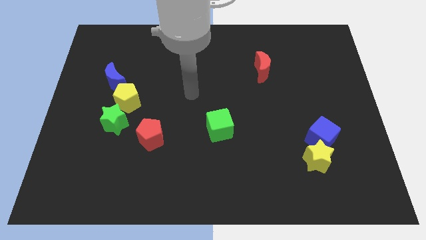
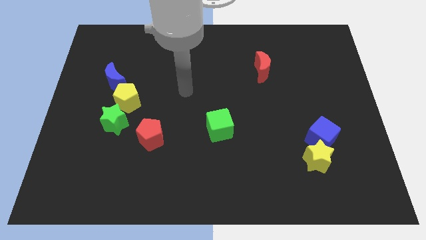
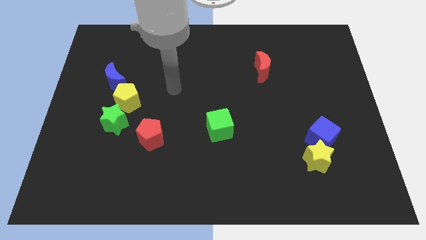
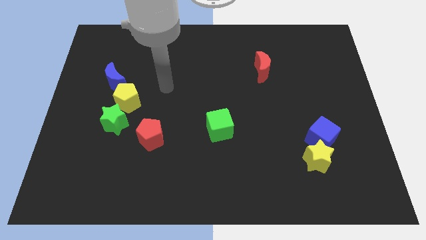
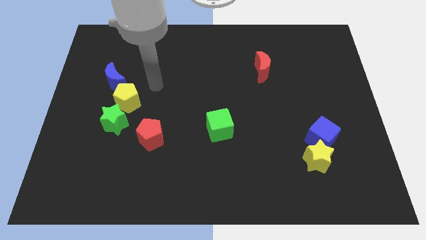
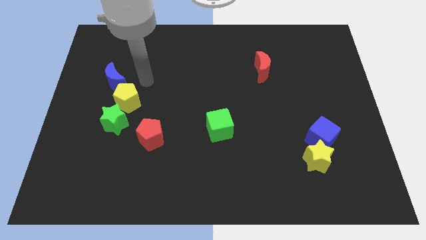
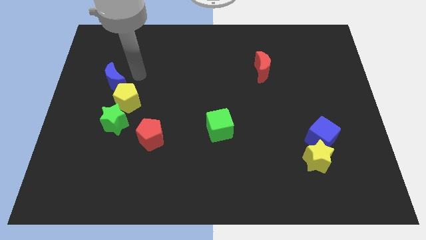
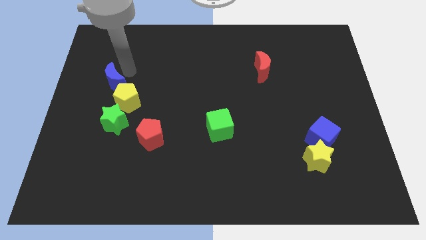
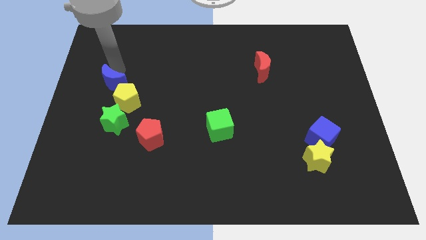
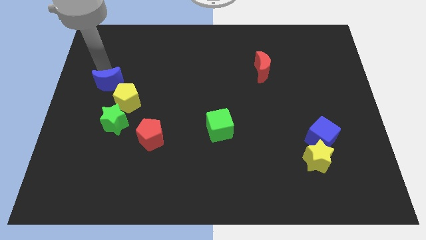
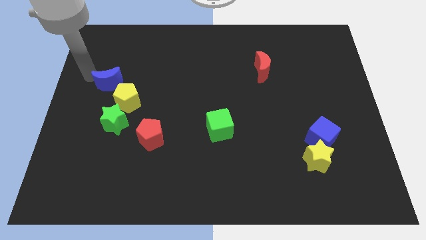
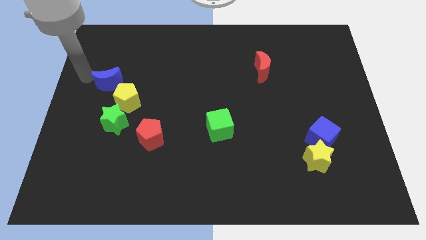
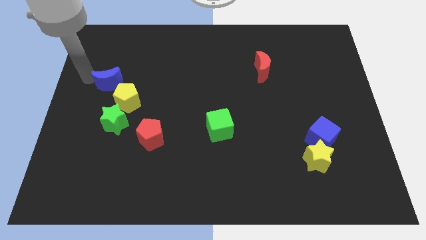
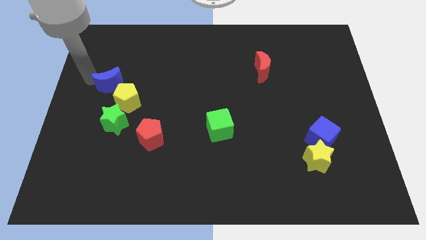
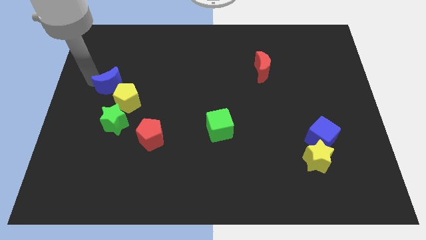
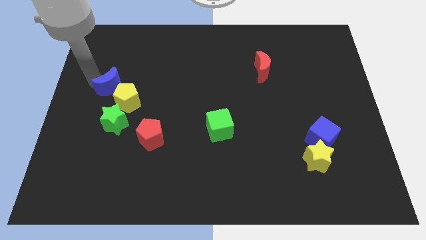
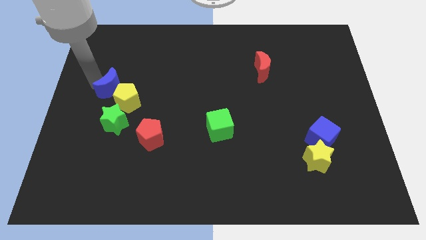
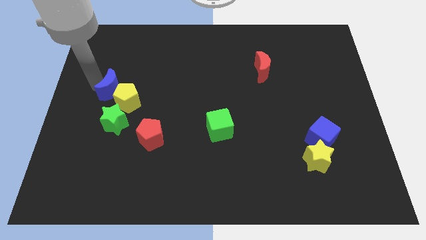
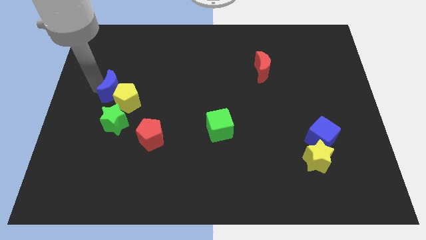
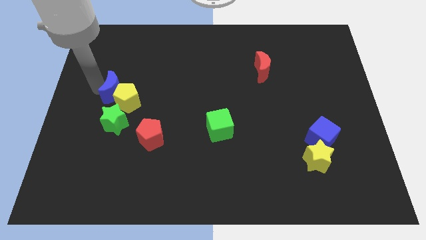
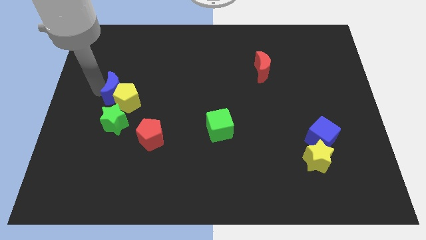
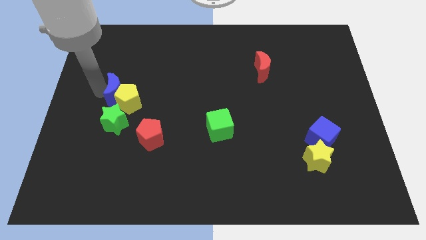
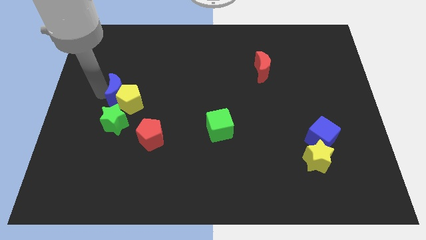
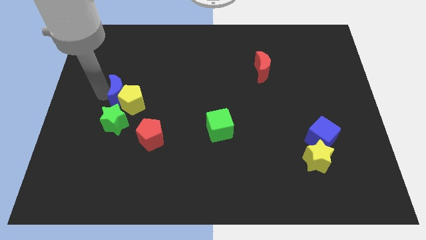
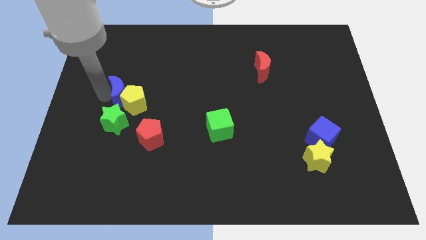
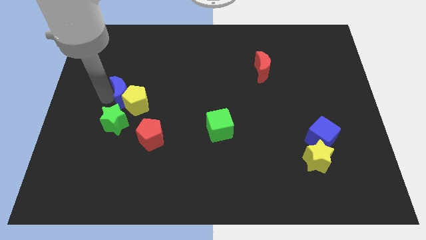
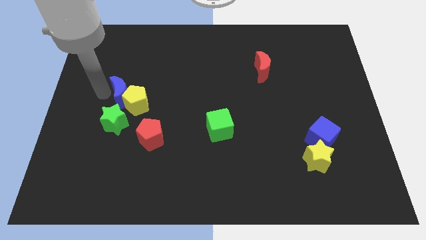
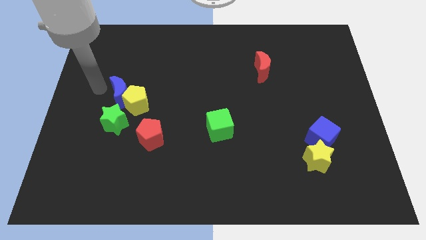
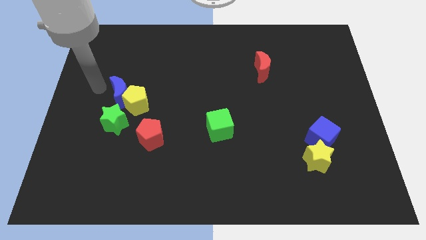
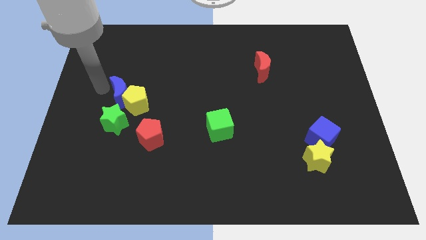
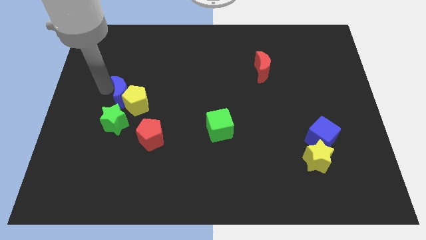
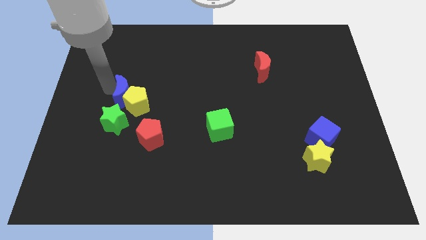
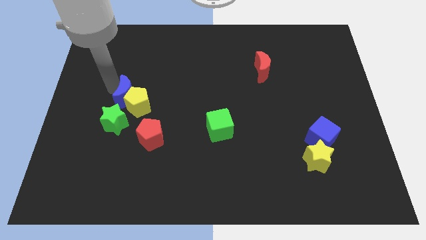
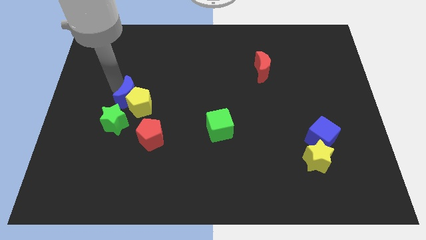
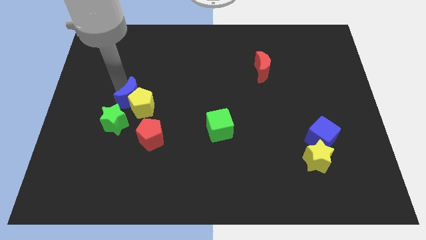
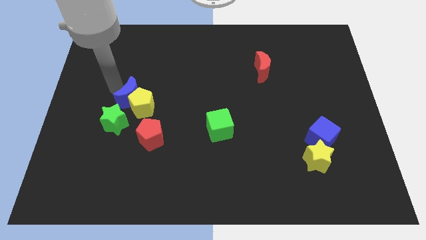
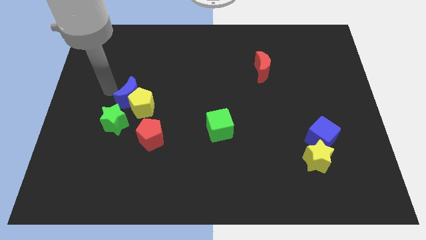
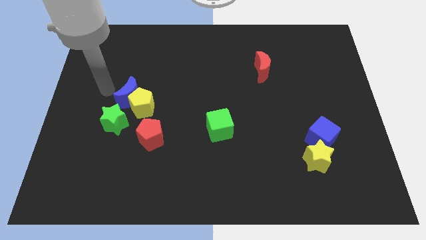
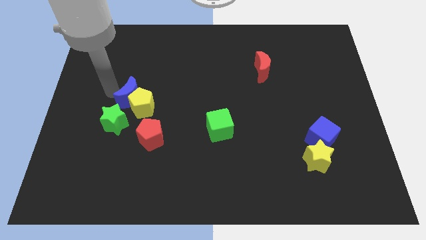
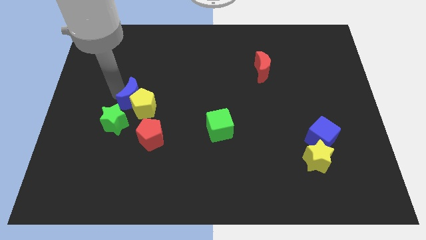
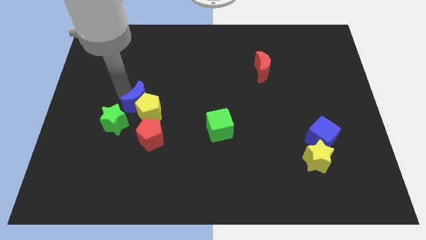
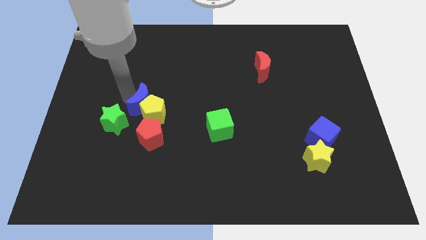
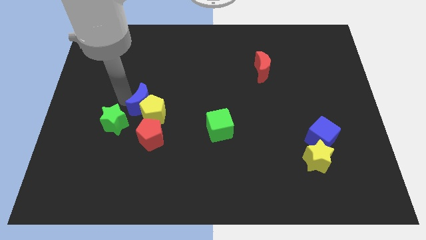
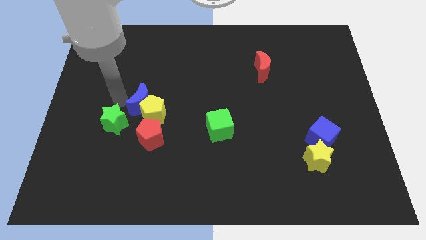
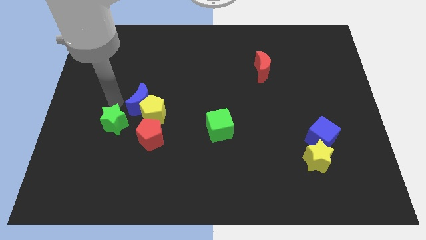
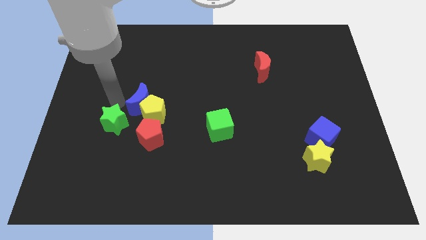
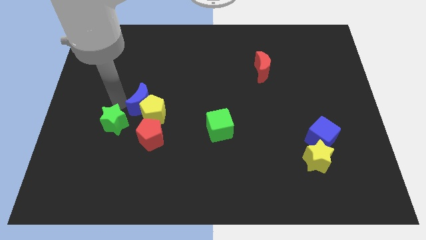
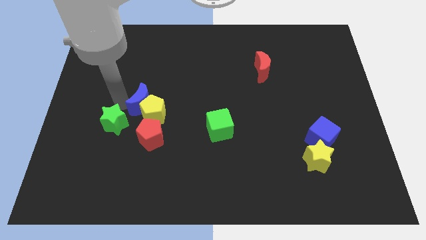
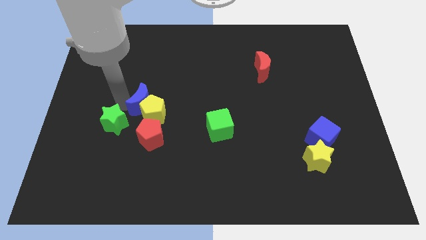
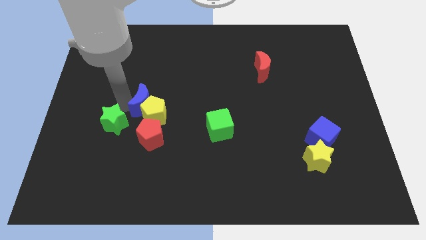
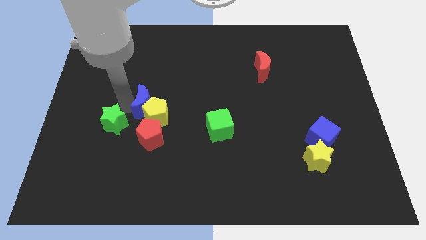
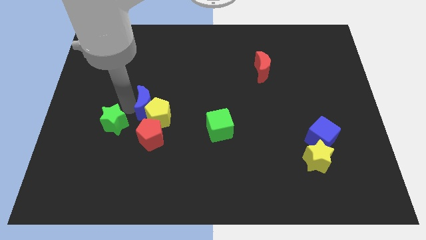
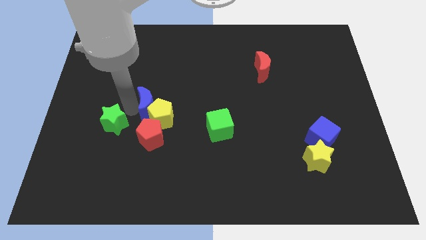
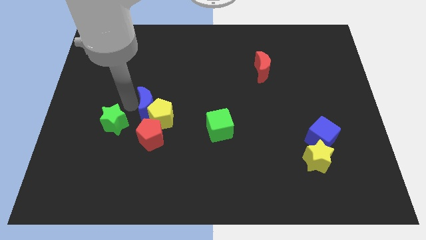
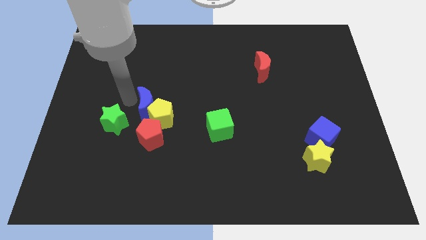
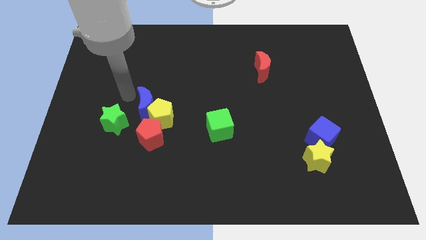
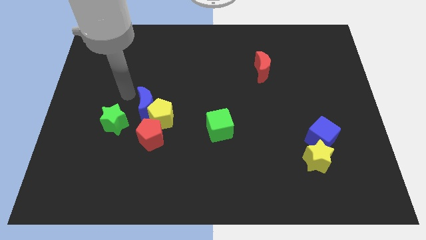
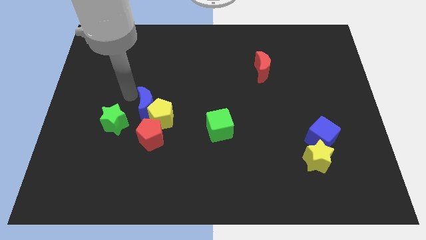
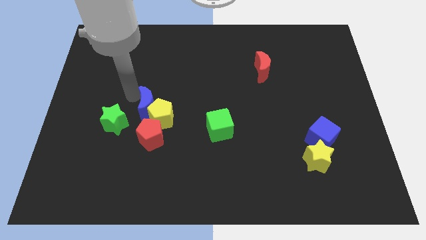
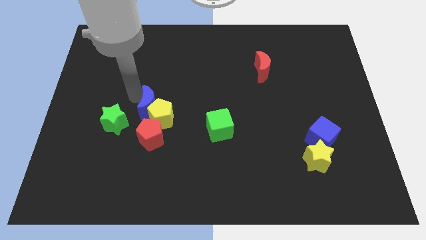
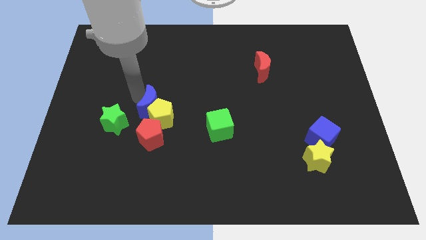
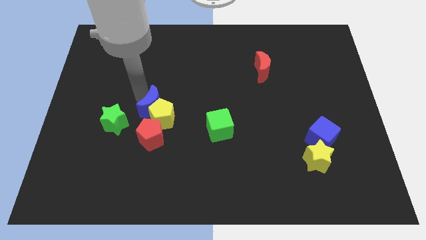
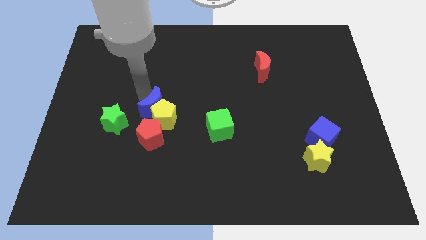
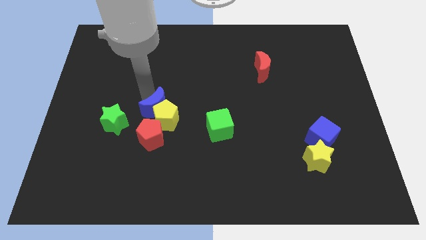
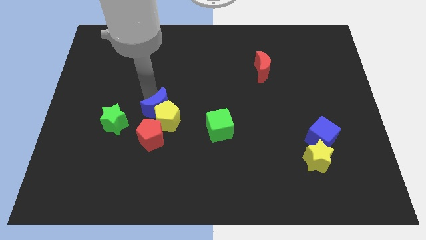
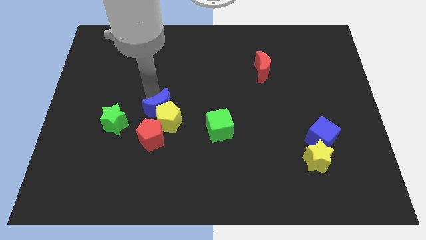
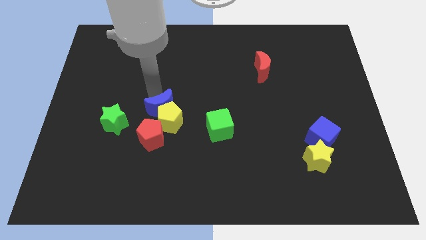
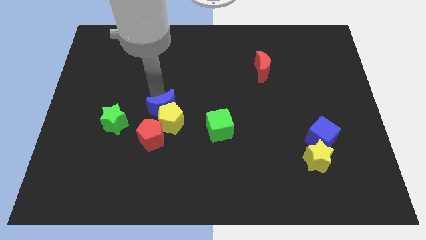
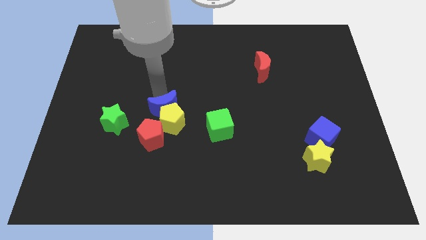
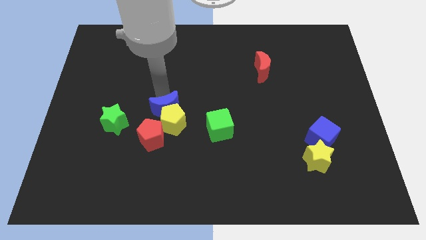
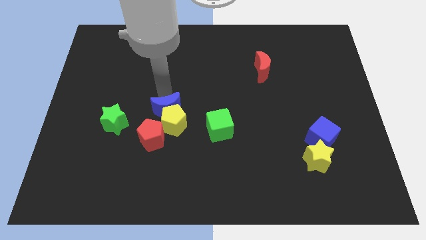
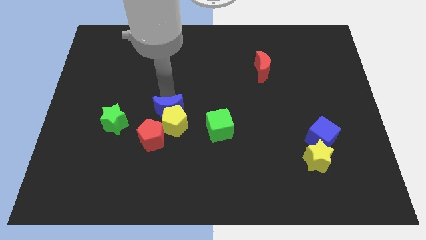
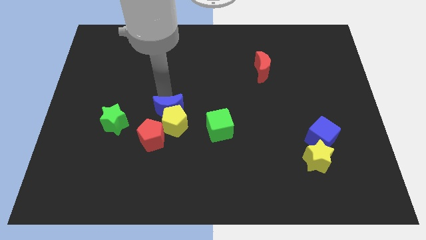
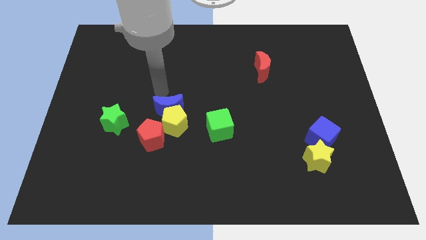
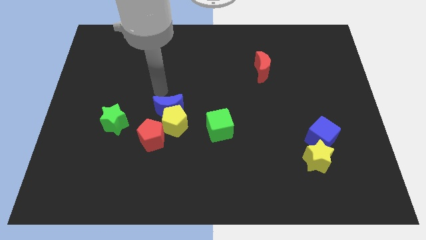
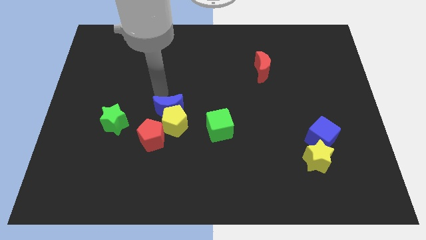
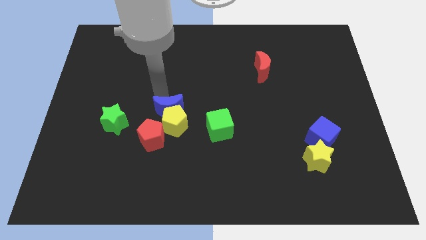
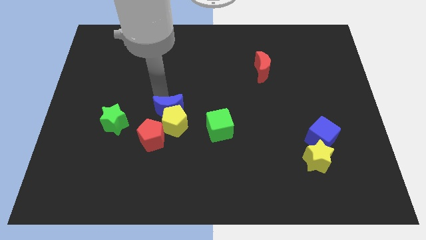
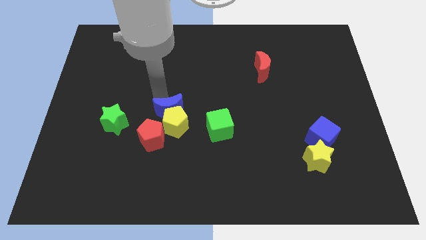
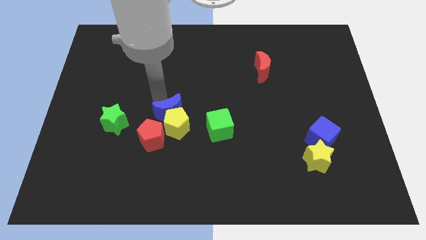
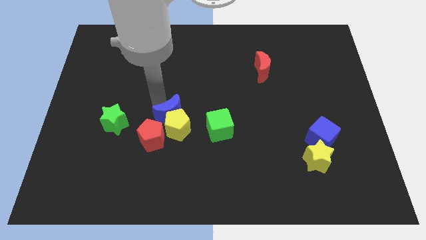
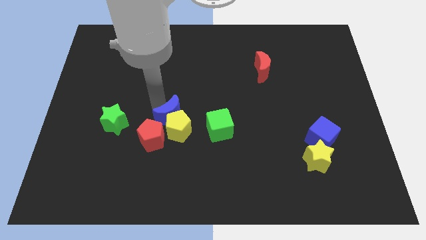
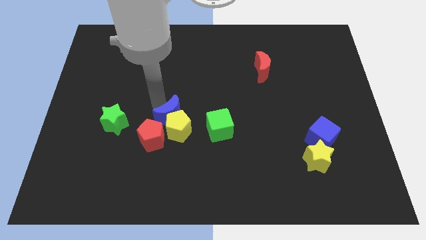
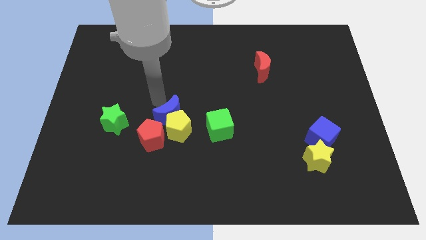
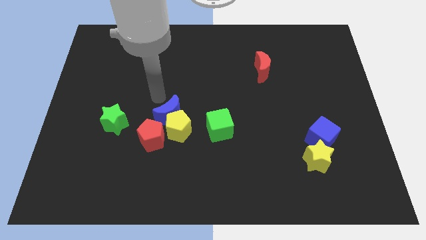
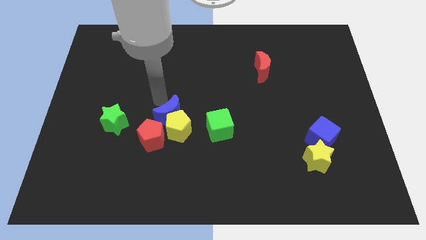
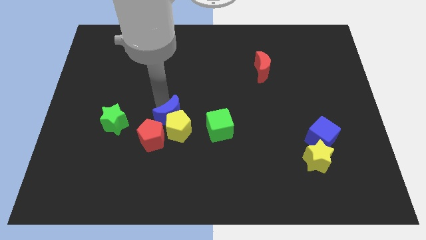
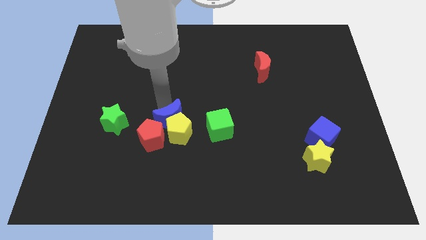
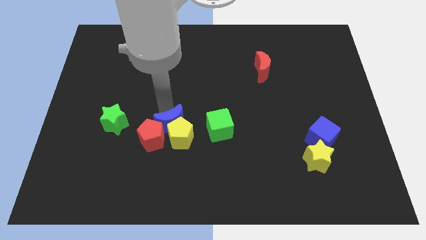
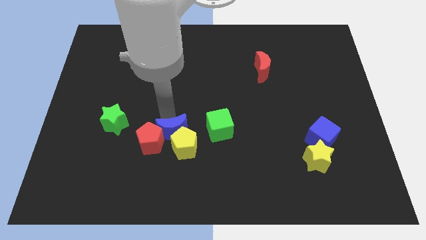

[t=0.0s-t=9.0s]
slide the blue moon down and right
